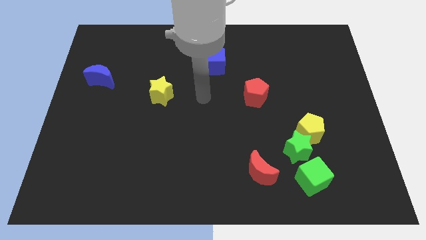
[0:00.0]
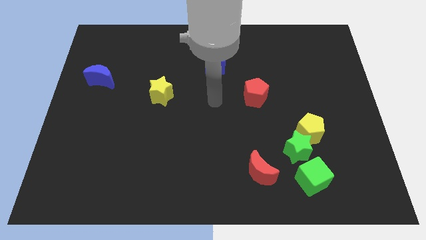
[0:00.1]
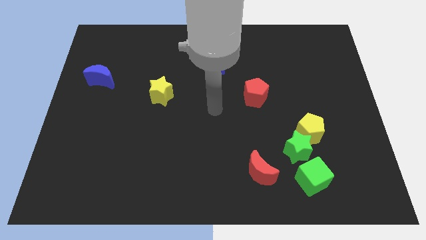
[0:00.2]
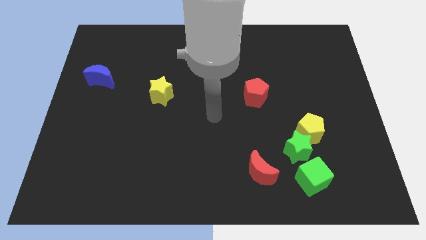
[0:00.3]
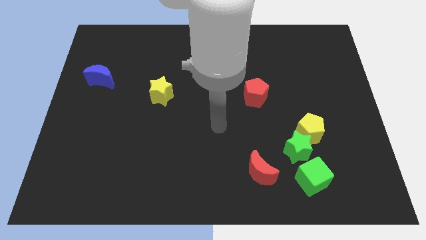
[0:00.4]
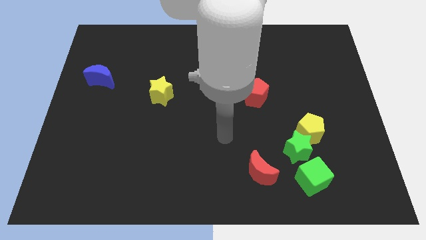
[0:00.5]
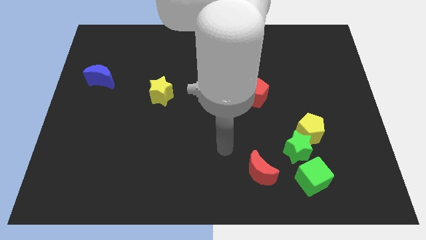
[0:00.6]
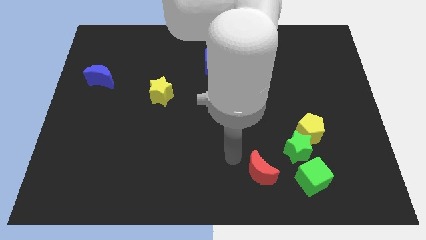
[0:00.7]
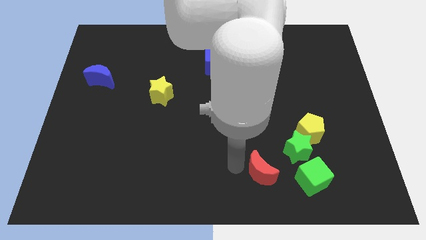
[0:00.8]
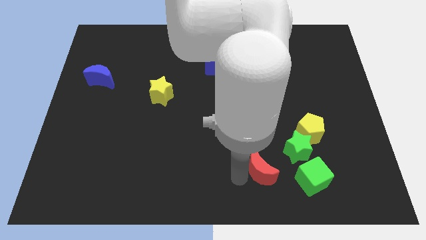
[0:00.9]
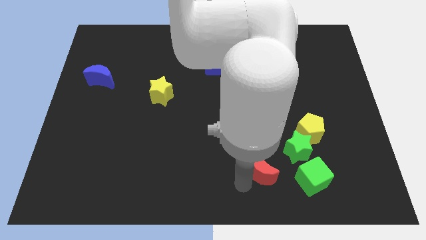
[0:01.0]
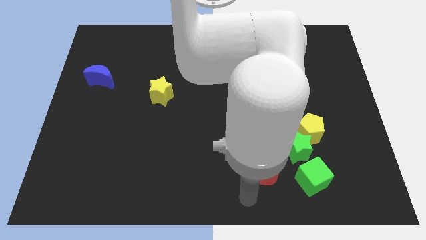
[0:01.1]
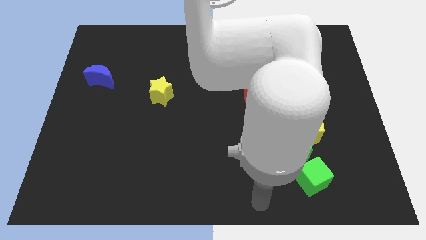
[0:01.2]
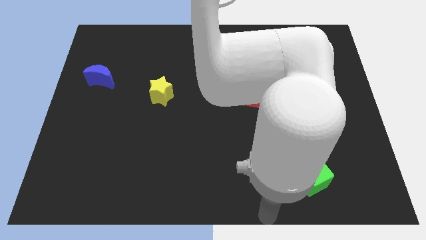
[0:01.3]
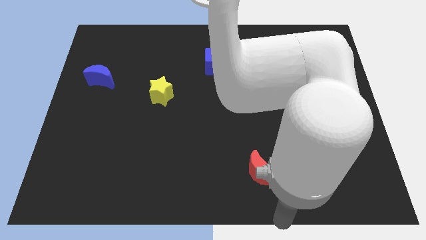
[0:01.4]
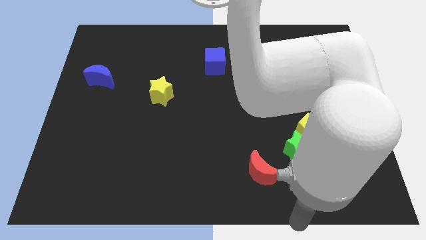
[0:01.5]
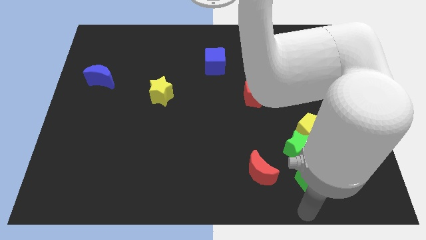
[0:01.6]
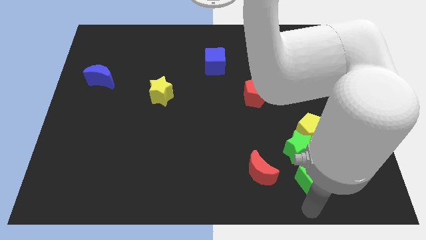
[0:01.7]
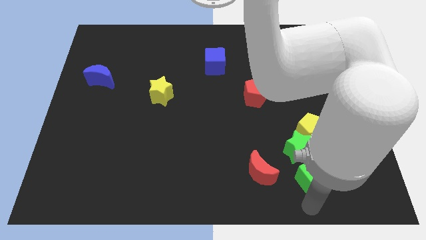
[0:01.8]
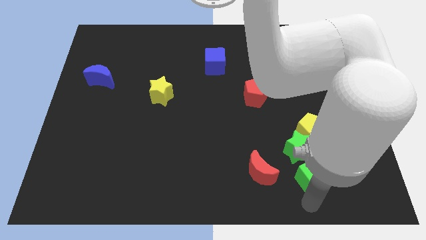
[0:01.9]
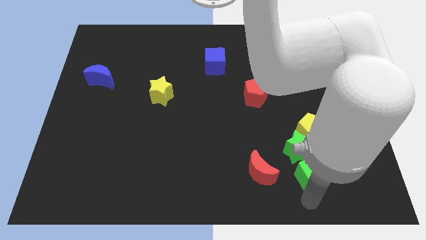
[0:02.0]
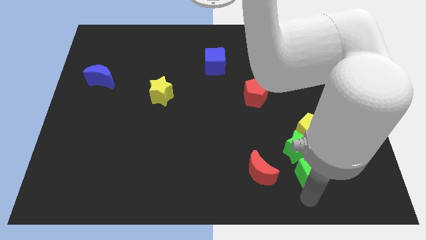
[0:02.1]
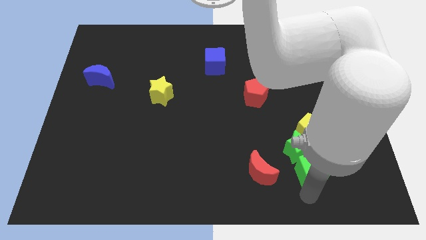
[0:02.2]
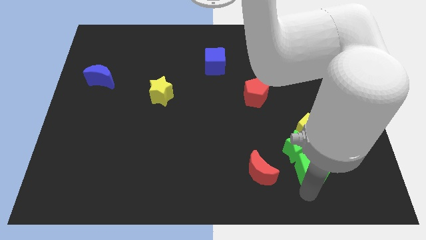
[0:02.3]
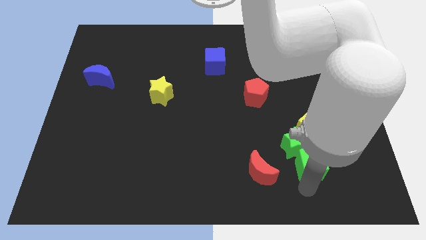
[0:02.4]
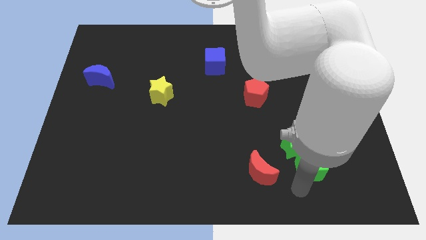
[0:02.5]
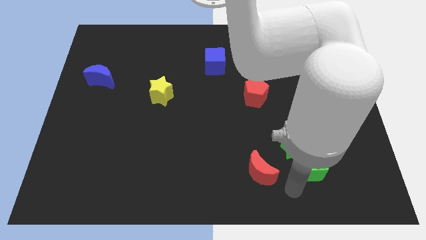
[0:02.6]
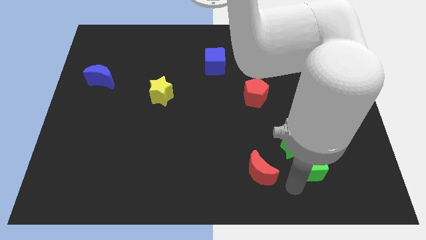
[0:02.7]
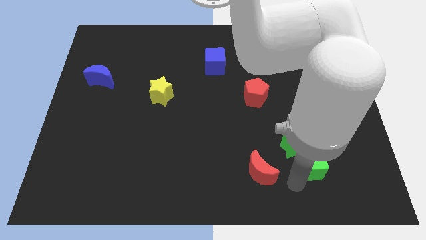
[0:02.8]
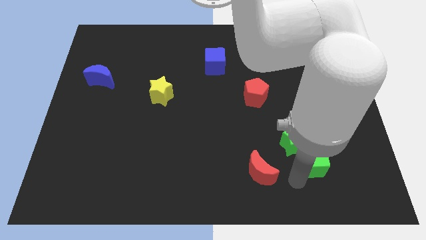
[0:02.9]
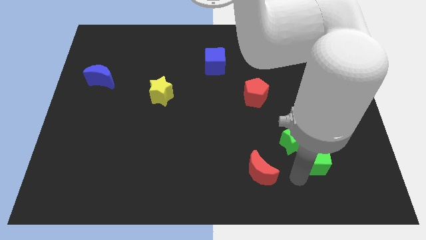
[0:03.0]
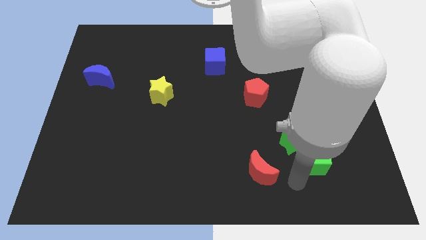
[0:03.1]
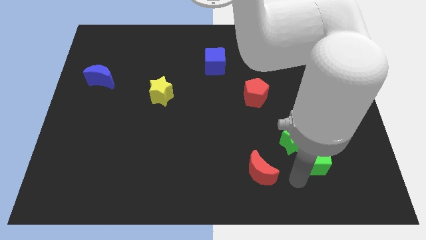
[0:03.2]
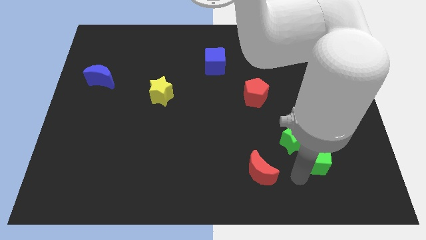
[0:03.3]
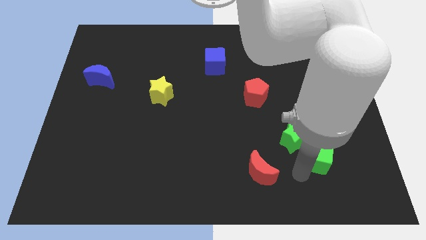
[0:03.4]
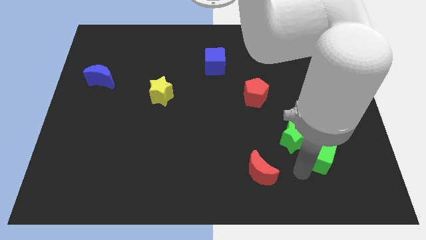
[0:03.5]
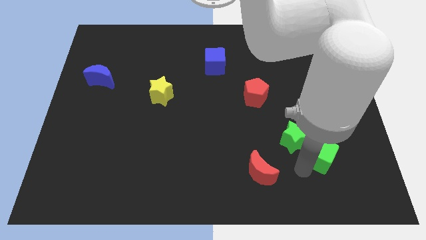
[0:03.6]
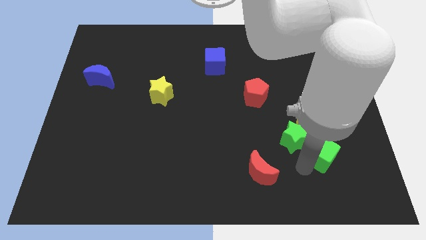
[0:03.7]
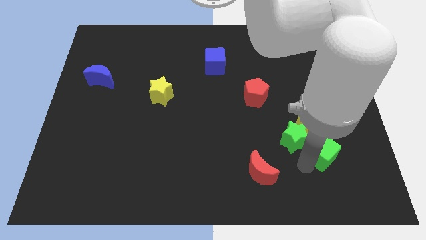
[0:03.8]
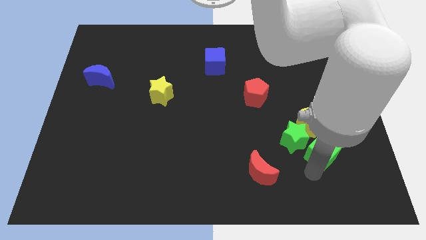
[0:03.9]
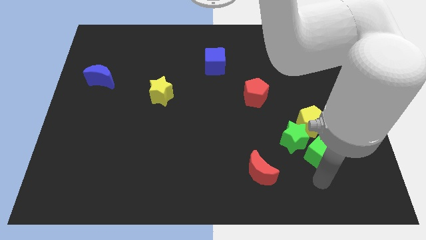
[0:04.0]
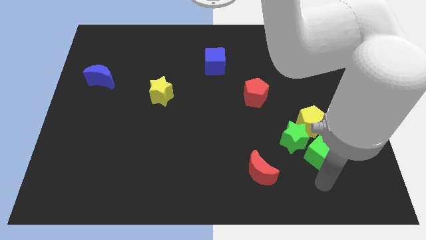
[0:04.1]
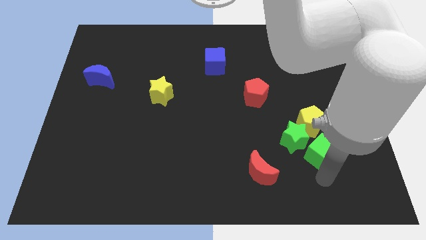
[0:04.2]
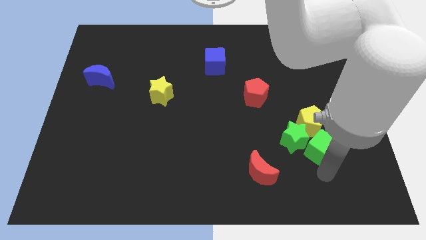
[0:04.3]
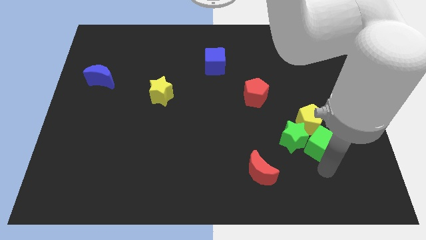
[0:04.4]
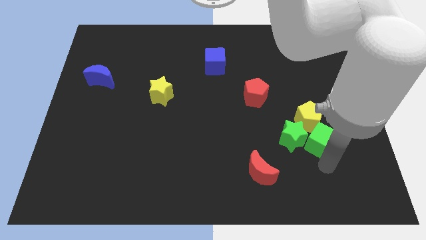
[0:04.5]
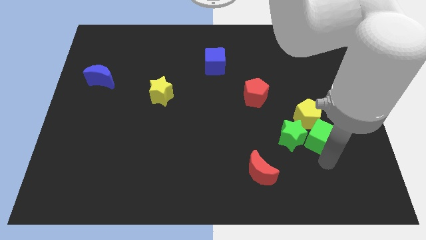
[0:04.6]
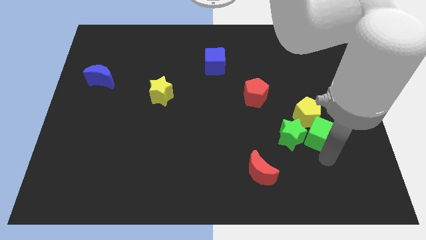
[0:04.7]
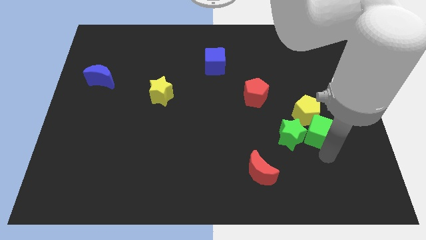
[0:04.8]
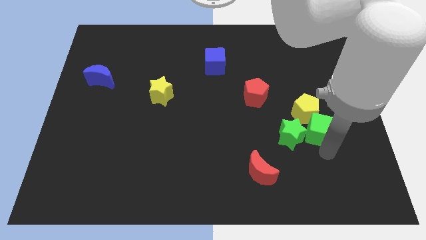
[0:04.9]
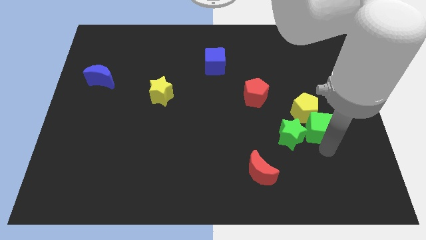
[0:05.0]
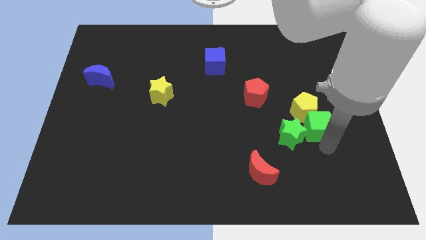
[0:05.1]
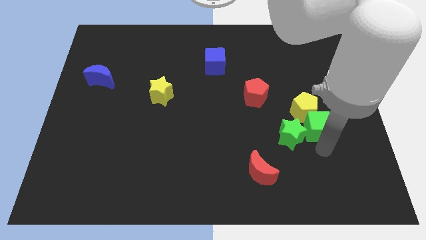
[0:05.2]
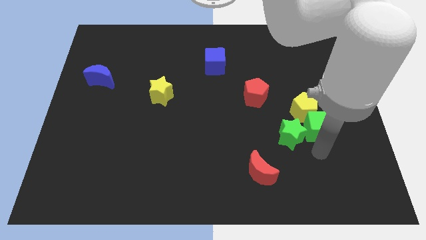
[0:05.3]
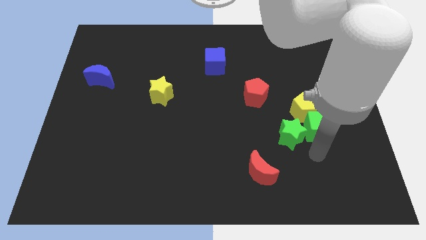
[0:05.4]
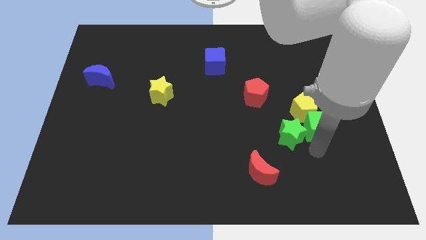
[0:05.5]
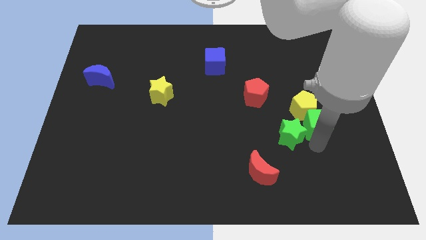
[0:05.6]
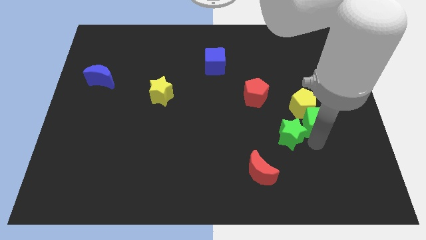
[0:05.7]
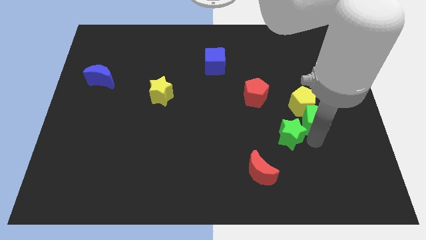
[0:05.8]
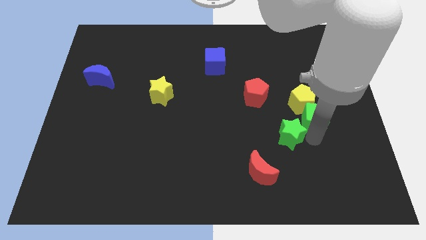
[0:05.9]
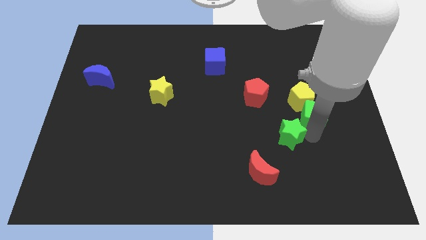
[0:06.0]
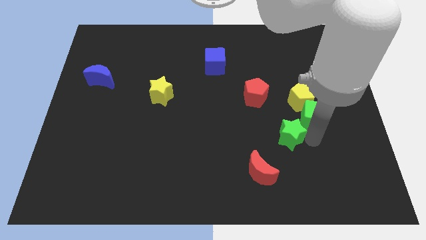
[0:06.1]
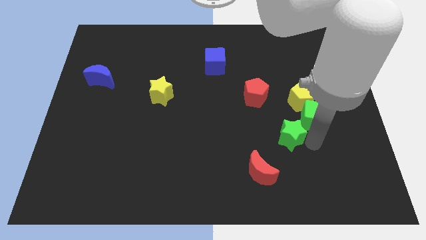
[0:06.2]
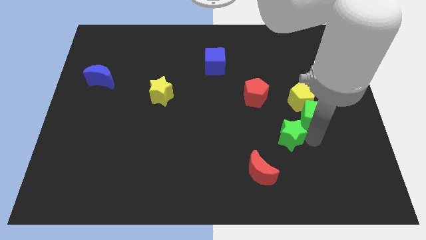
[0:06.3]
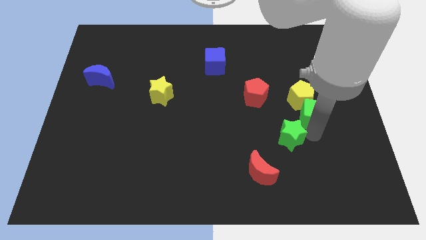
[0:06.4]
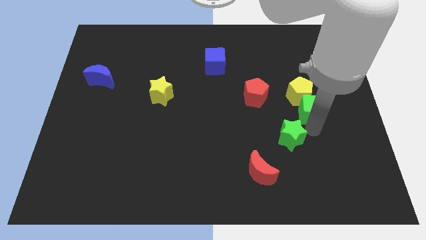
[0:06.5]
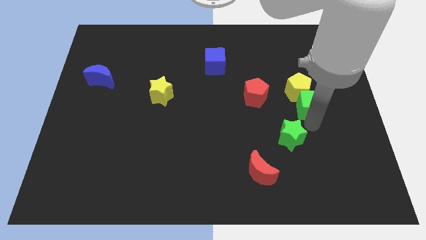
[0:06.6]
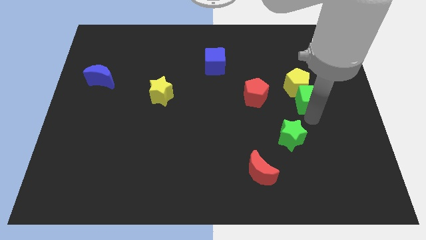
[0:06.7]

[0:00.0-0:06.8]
move the green cube up

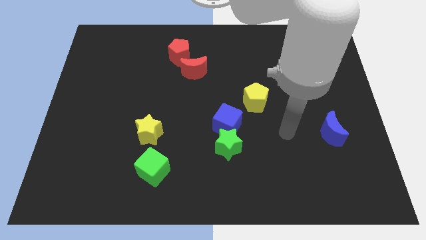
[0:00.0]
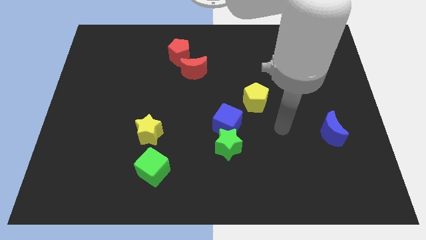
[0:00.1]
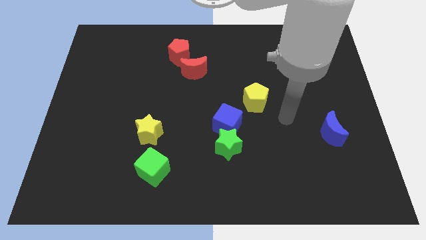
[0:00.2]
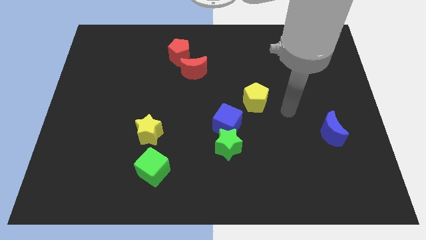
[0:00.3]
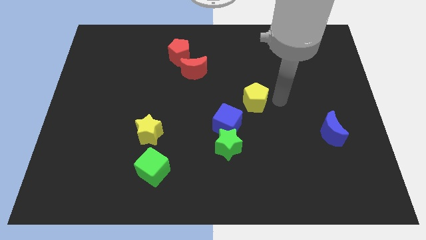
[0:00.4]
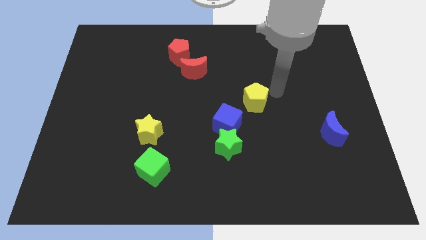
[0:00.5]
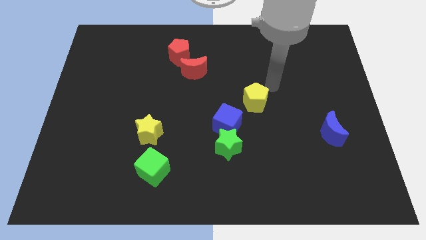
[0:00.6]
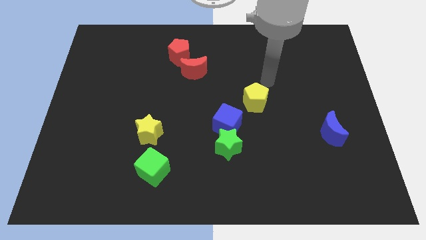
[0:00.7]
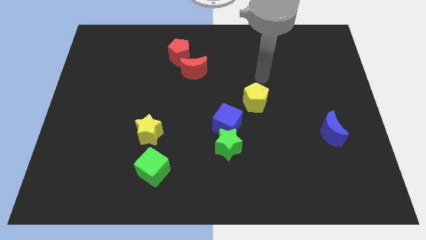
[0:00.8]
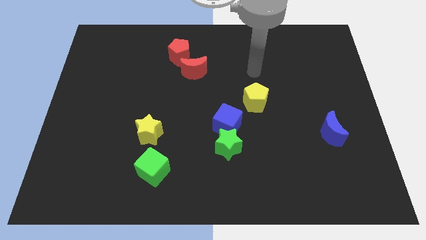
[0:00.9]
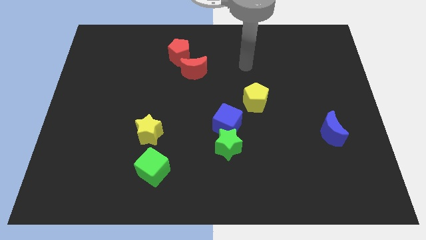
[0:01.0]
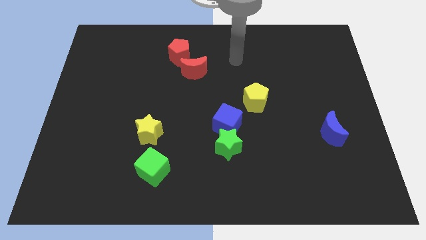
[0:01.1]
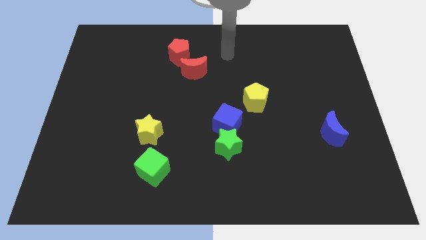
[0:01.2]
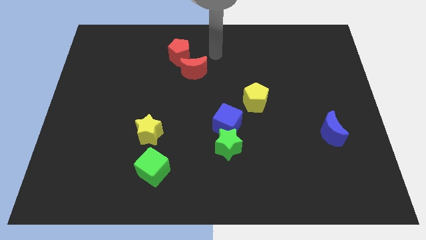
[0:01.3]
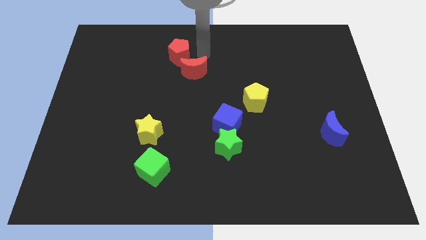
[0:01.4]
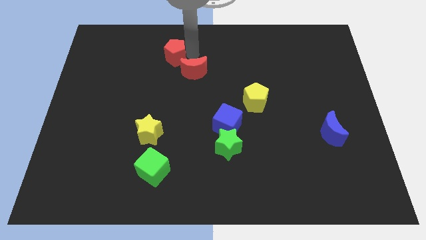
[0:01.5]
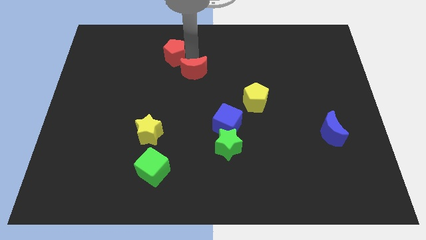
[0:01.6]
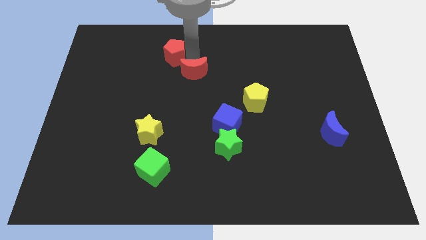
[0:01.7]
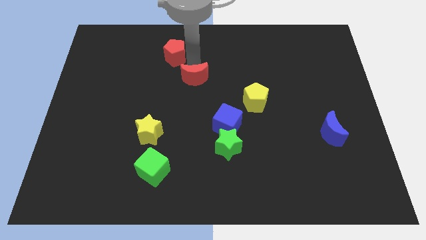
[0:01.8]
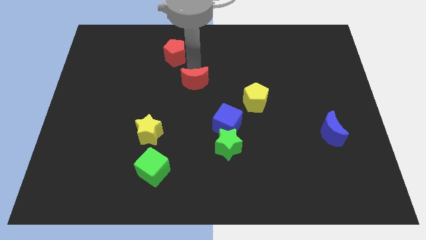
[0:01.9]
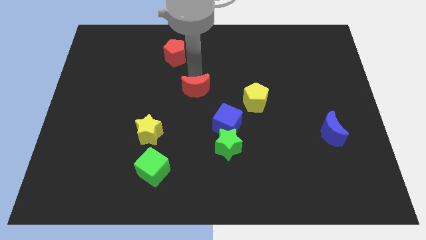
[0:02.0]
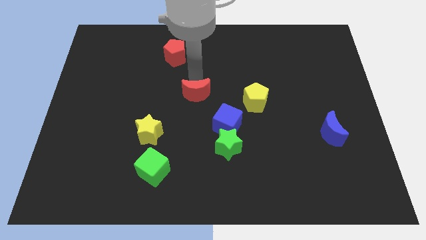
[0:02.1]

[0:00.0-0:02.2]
push the red moon down a little
